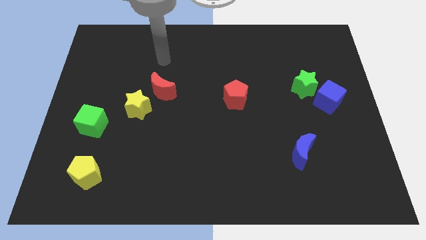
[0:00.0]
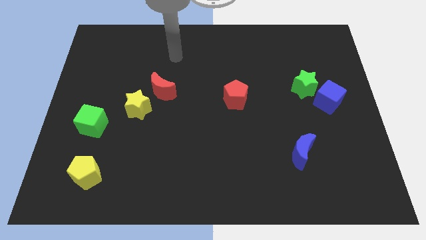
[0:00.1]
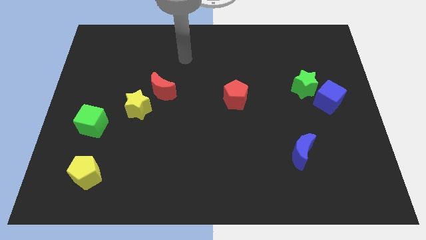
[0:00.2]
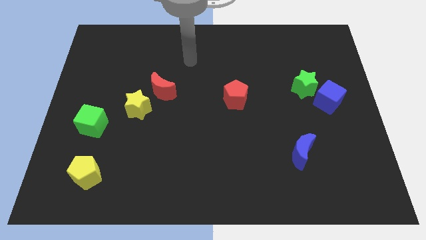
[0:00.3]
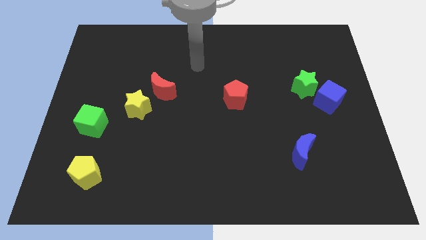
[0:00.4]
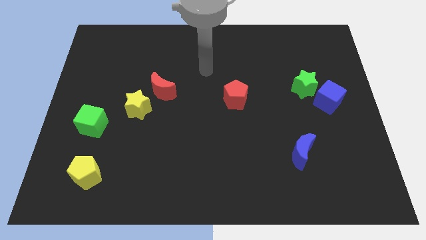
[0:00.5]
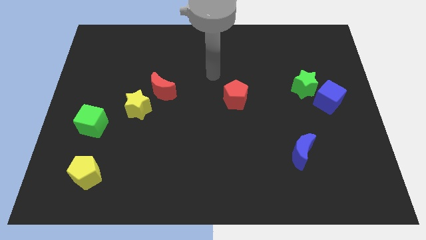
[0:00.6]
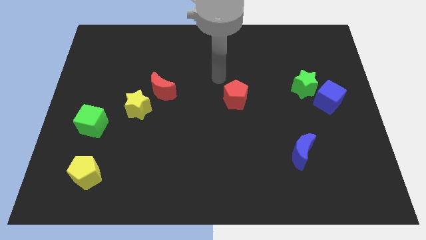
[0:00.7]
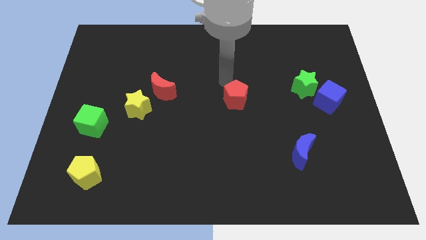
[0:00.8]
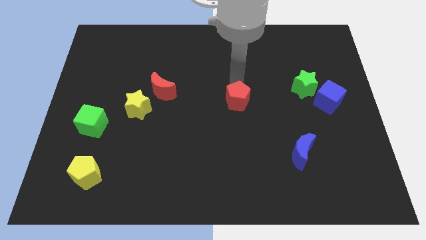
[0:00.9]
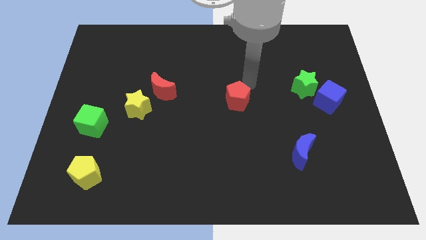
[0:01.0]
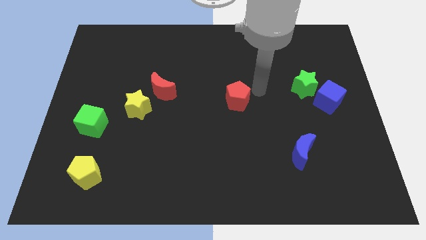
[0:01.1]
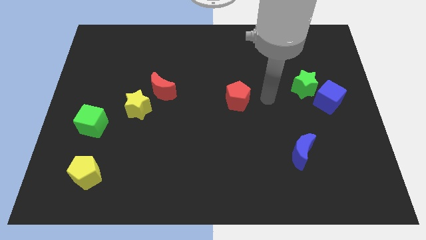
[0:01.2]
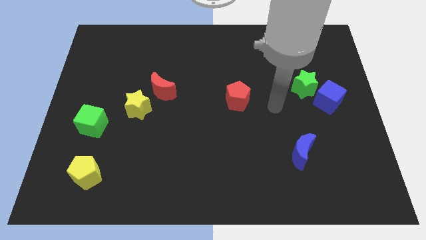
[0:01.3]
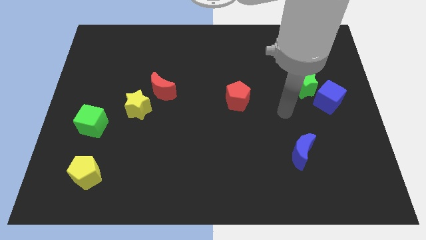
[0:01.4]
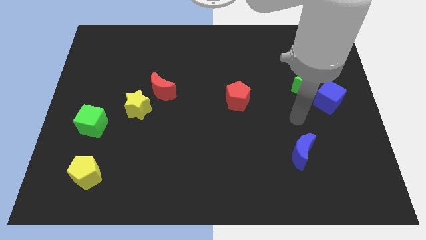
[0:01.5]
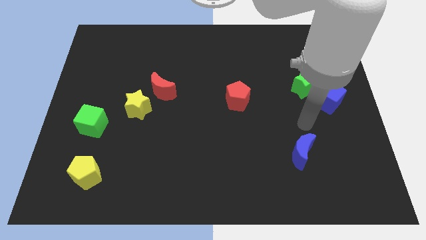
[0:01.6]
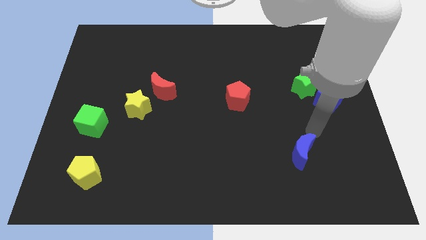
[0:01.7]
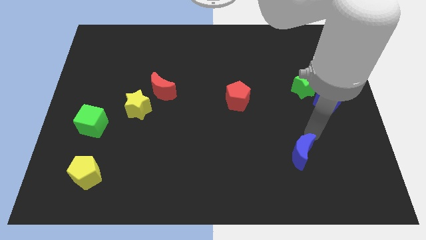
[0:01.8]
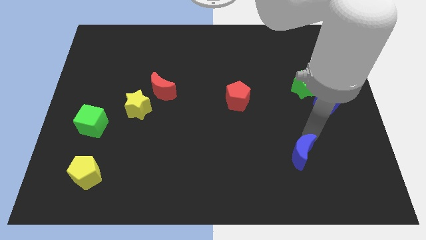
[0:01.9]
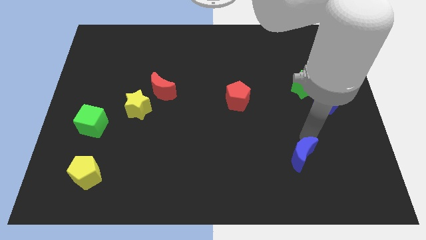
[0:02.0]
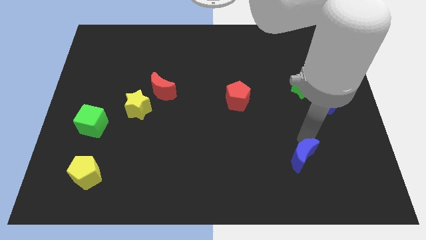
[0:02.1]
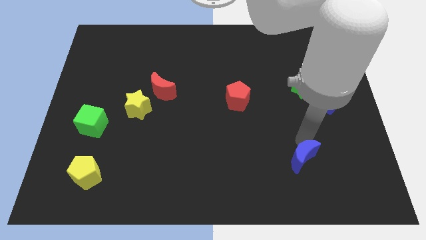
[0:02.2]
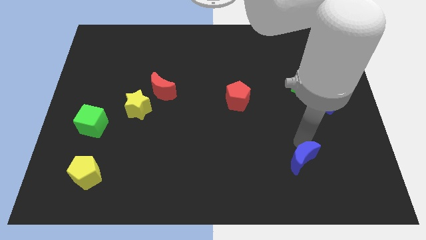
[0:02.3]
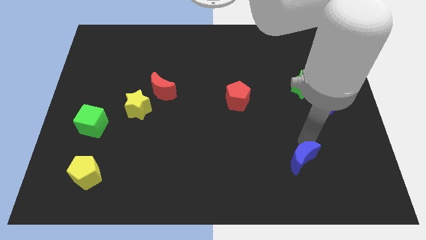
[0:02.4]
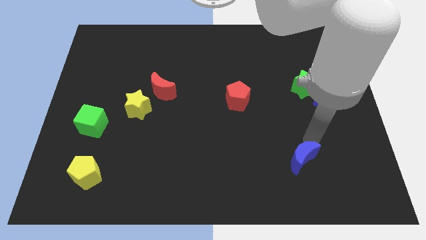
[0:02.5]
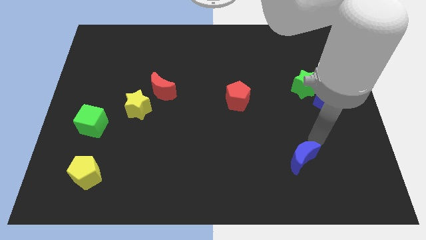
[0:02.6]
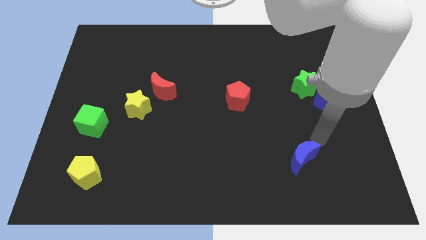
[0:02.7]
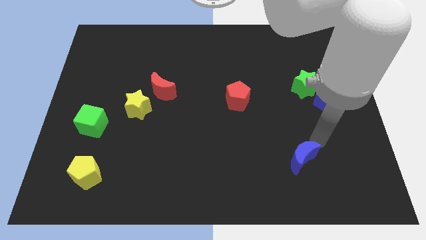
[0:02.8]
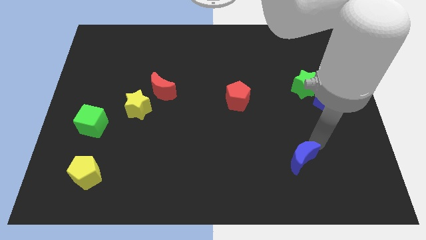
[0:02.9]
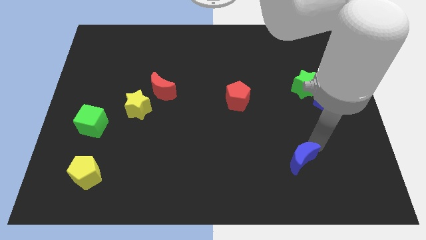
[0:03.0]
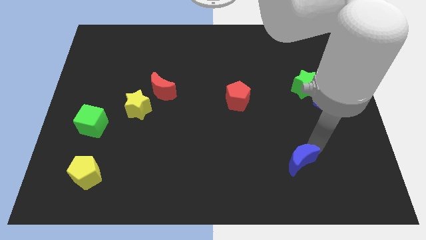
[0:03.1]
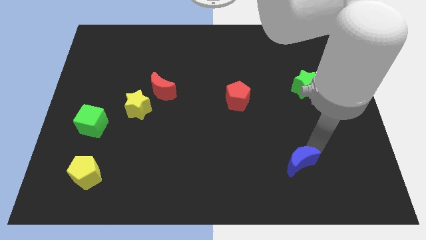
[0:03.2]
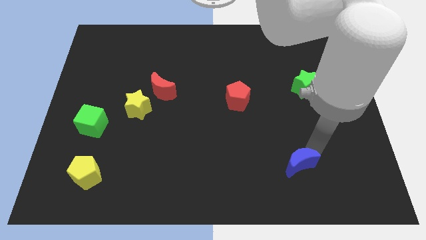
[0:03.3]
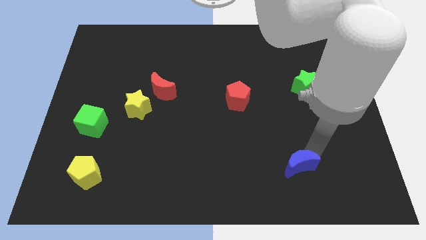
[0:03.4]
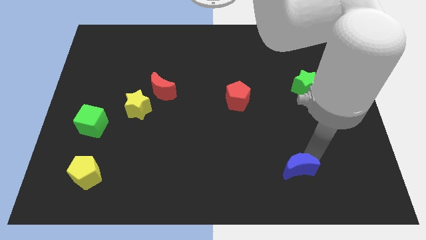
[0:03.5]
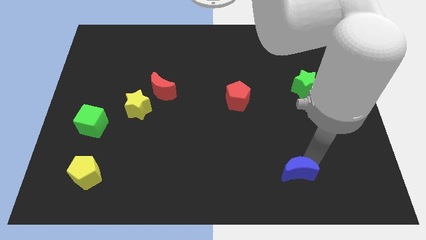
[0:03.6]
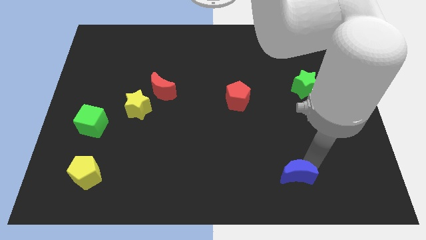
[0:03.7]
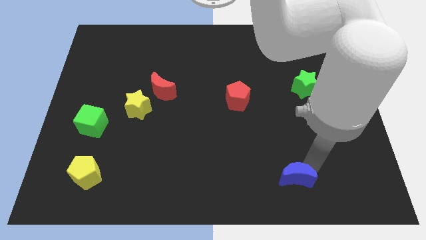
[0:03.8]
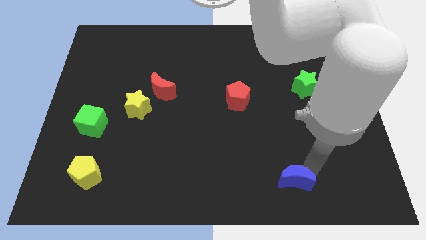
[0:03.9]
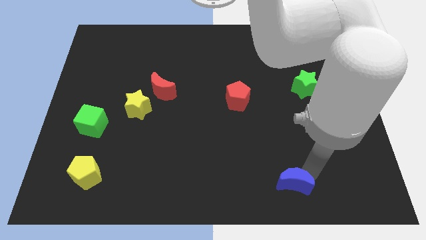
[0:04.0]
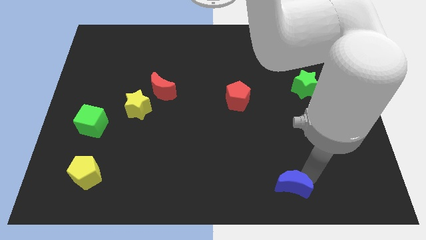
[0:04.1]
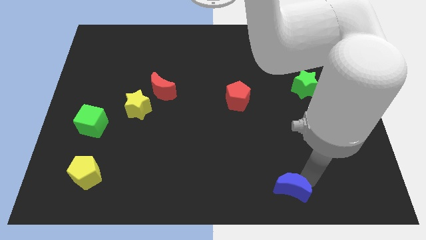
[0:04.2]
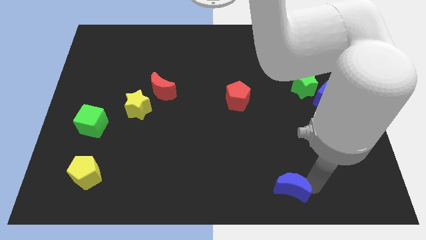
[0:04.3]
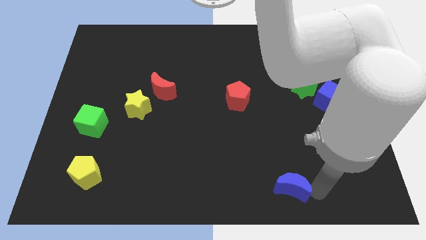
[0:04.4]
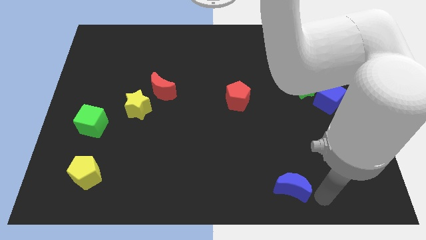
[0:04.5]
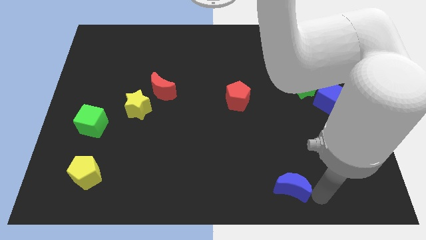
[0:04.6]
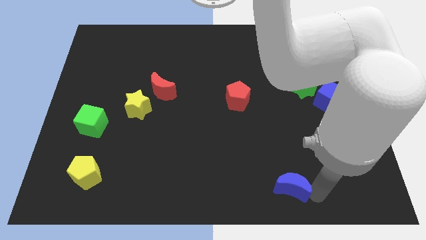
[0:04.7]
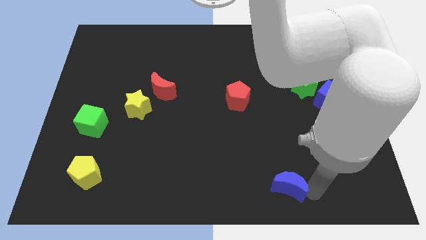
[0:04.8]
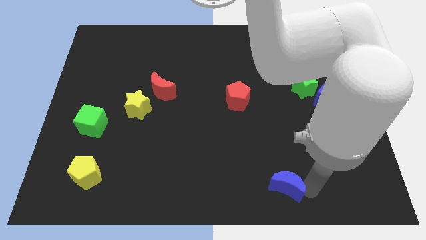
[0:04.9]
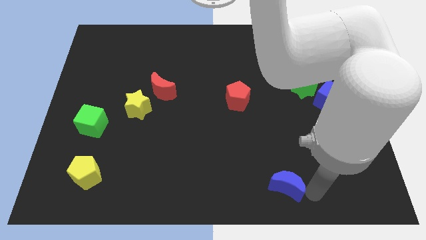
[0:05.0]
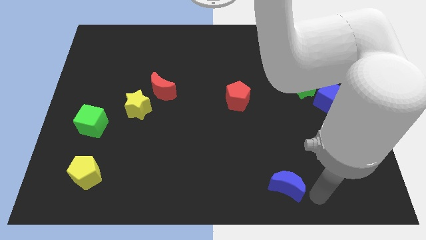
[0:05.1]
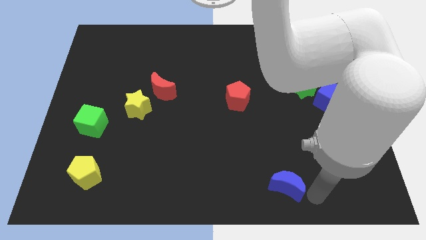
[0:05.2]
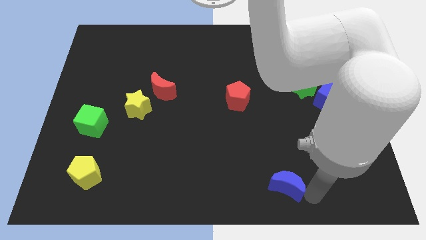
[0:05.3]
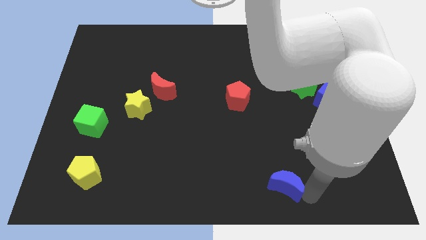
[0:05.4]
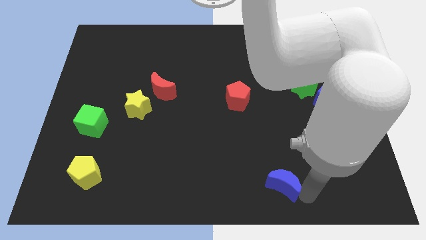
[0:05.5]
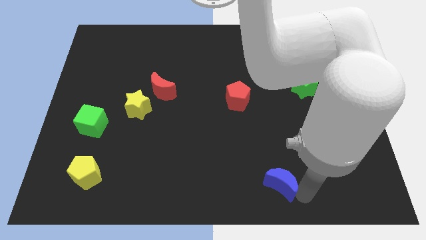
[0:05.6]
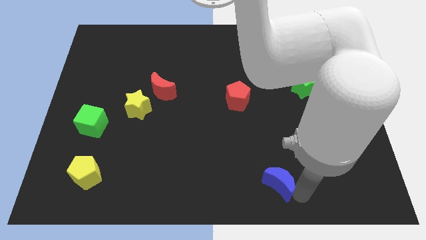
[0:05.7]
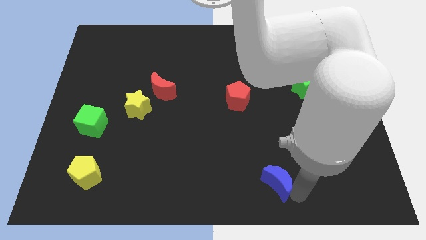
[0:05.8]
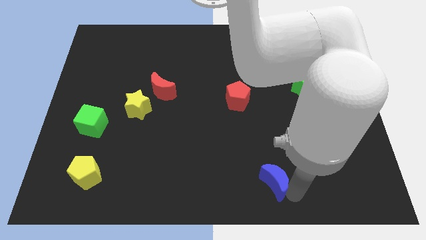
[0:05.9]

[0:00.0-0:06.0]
put the blue moon to the bottom side

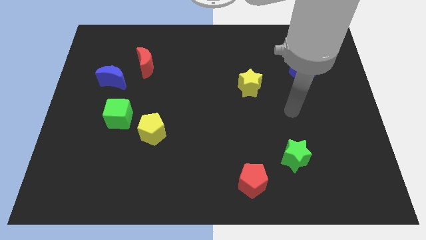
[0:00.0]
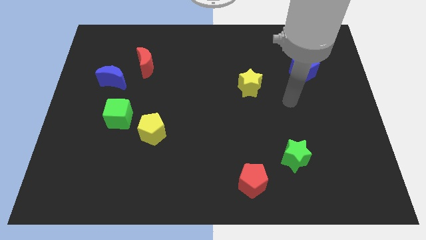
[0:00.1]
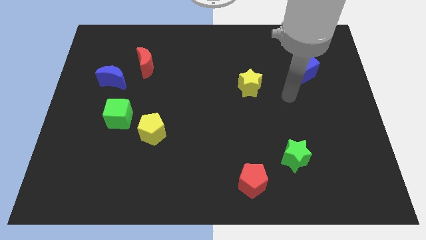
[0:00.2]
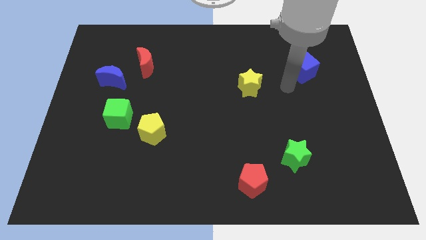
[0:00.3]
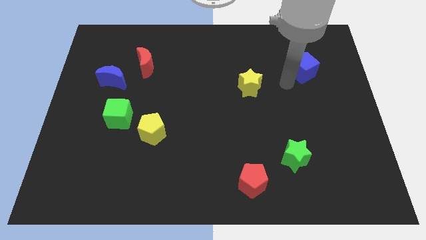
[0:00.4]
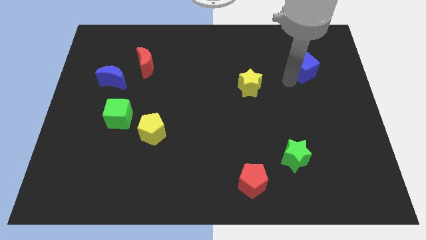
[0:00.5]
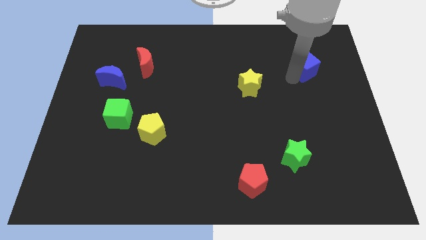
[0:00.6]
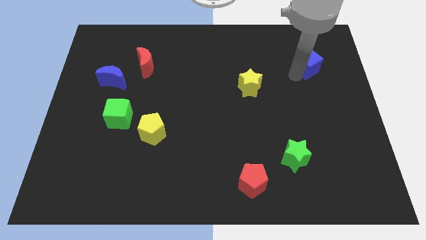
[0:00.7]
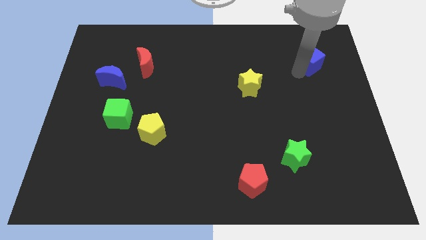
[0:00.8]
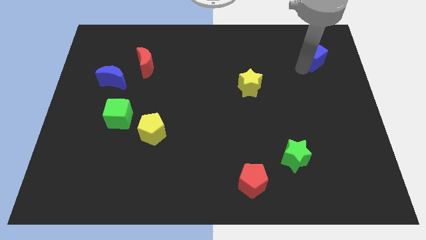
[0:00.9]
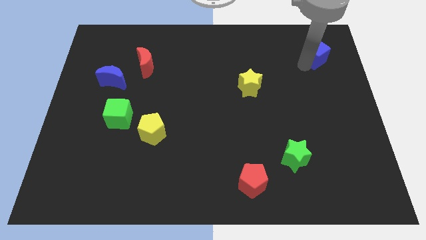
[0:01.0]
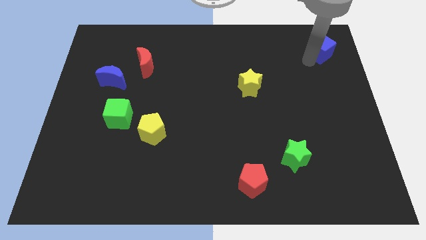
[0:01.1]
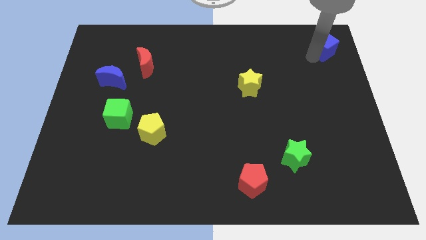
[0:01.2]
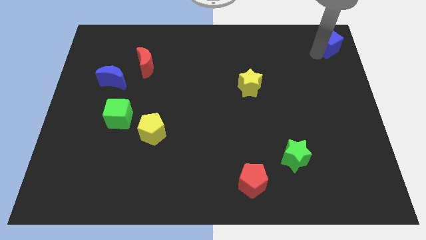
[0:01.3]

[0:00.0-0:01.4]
move the blue cube to the top right
